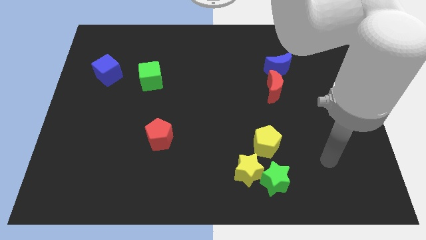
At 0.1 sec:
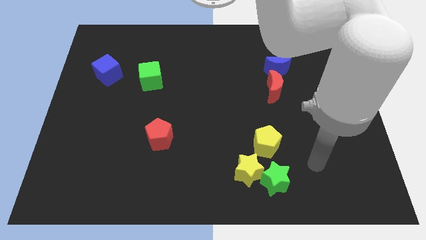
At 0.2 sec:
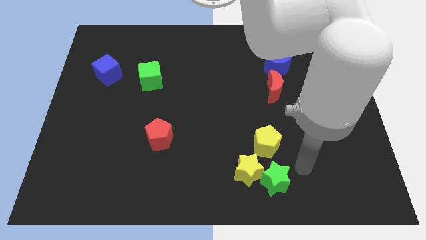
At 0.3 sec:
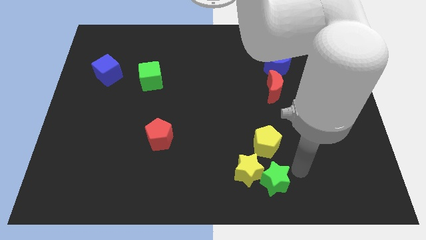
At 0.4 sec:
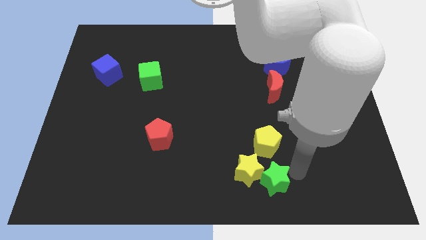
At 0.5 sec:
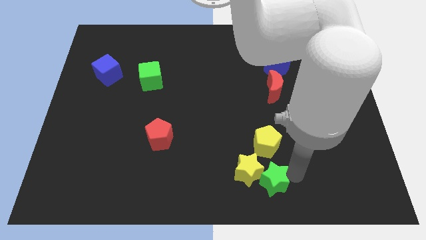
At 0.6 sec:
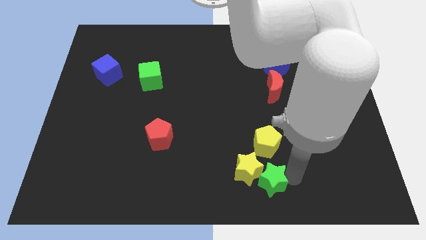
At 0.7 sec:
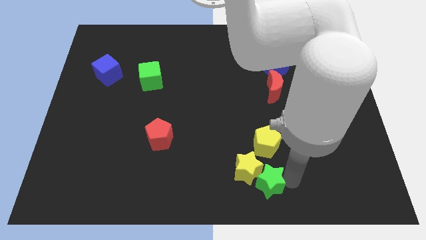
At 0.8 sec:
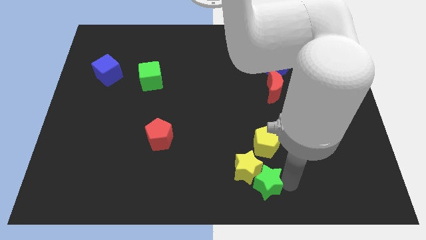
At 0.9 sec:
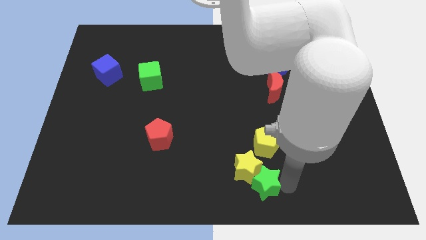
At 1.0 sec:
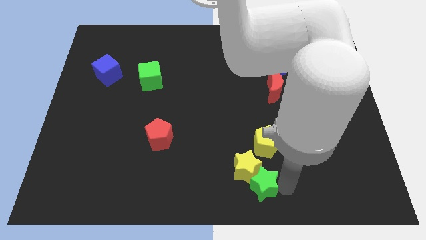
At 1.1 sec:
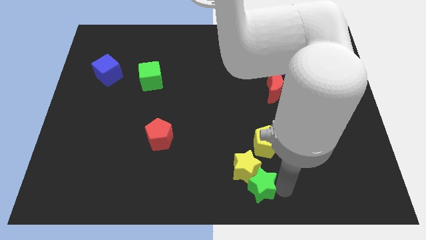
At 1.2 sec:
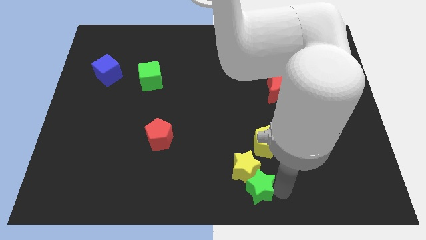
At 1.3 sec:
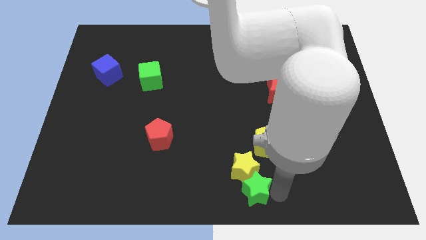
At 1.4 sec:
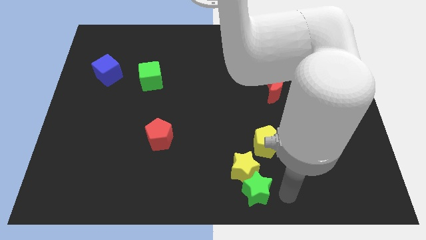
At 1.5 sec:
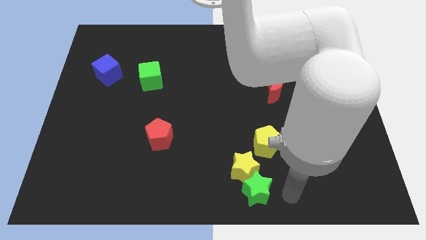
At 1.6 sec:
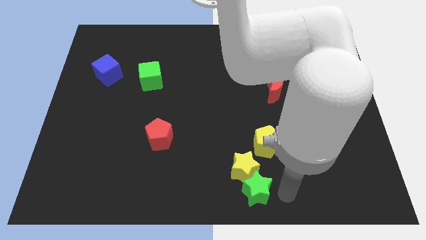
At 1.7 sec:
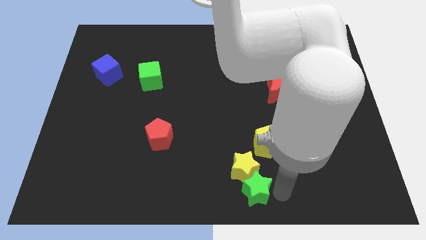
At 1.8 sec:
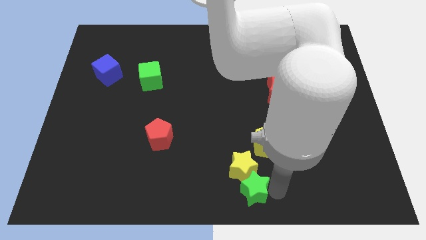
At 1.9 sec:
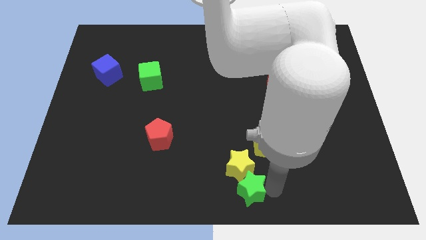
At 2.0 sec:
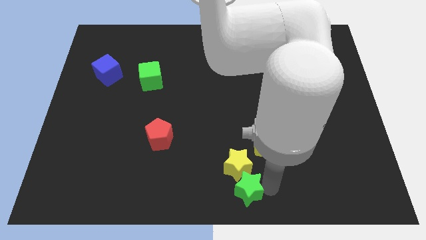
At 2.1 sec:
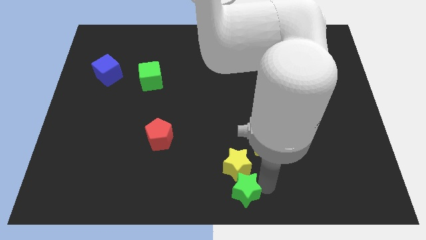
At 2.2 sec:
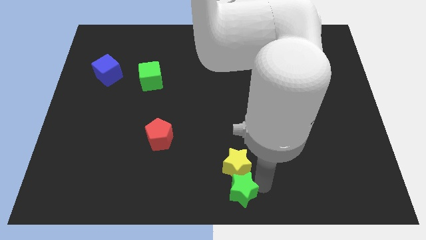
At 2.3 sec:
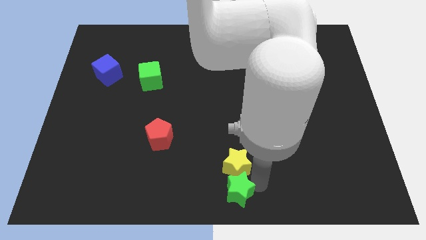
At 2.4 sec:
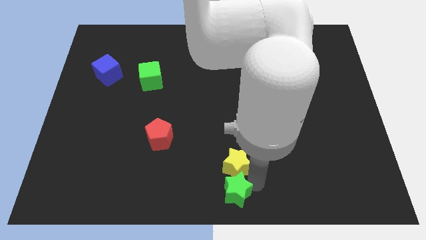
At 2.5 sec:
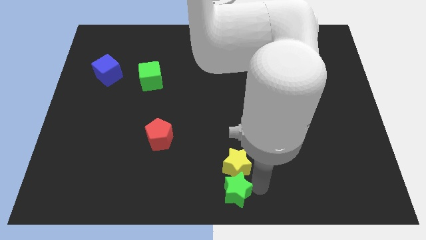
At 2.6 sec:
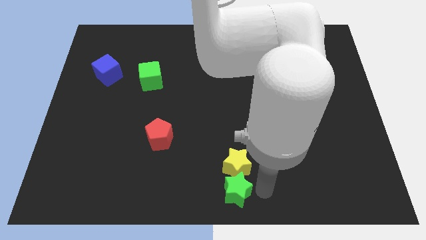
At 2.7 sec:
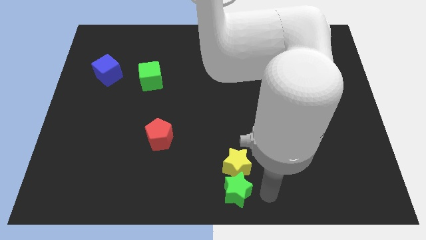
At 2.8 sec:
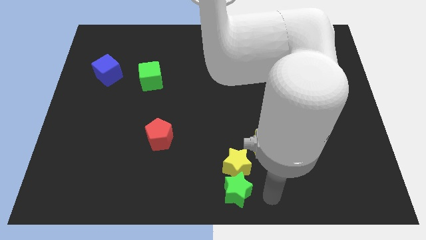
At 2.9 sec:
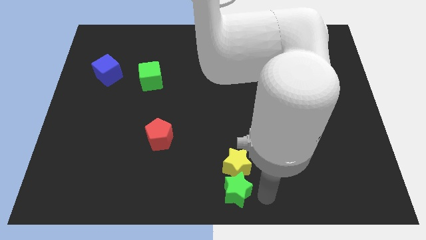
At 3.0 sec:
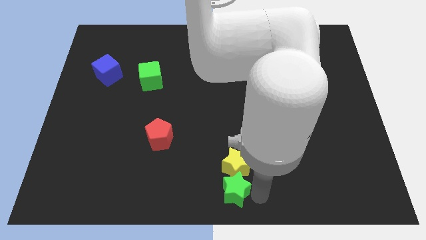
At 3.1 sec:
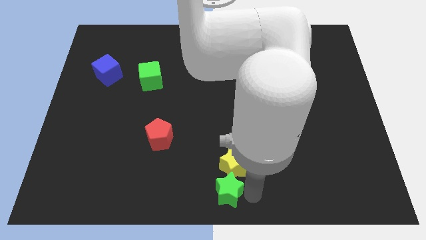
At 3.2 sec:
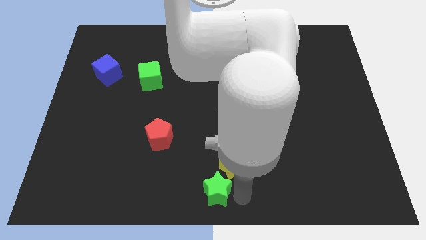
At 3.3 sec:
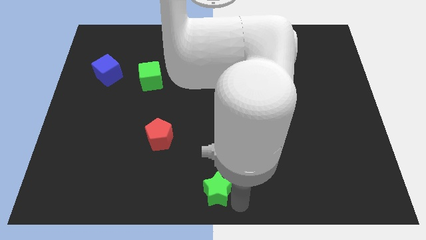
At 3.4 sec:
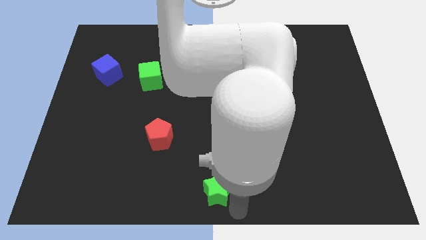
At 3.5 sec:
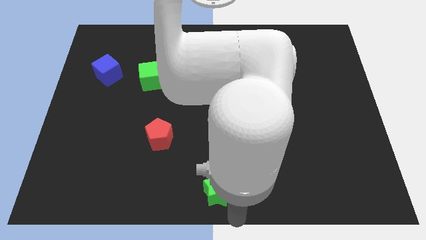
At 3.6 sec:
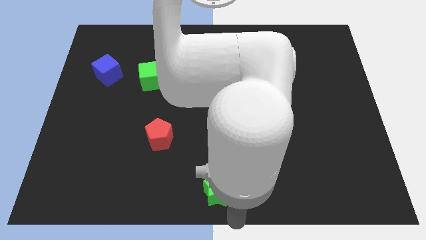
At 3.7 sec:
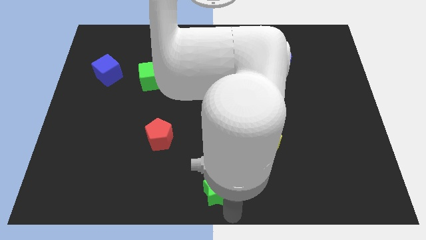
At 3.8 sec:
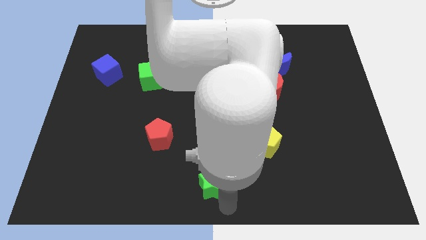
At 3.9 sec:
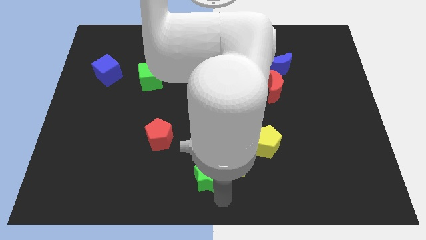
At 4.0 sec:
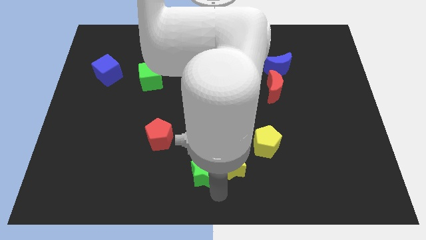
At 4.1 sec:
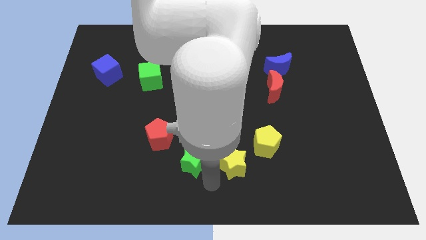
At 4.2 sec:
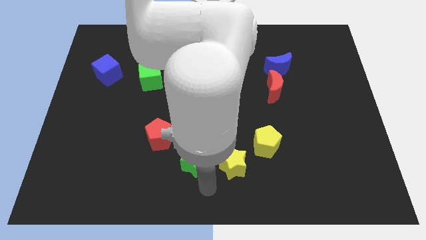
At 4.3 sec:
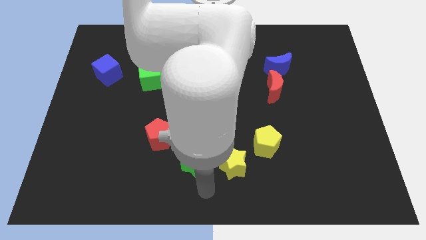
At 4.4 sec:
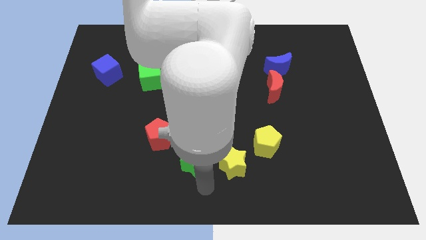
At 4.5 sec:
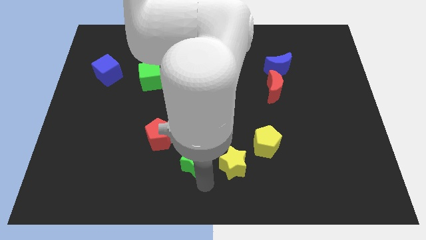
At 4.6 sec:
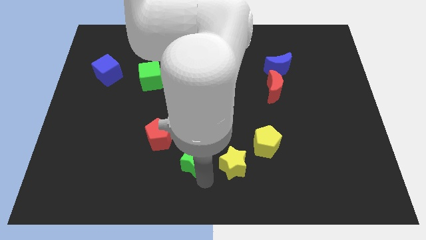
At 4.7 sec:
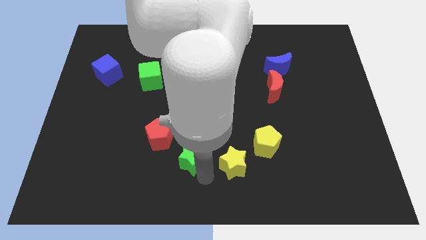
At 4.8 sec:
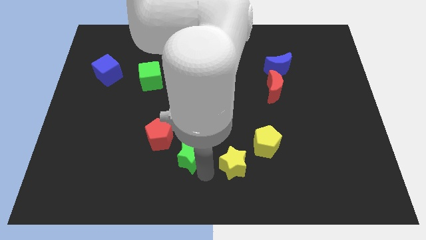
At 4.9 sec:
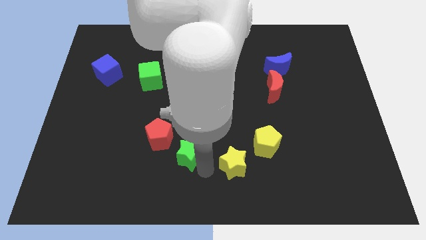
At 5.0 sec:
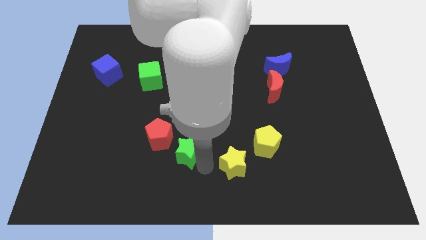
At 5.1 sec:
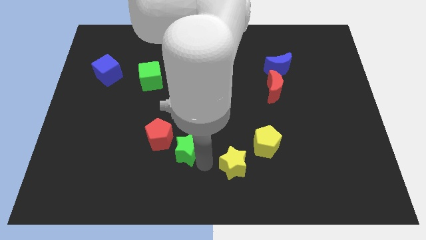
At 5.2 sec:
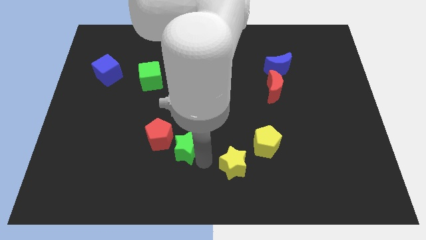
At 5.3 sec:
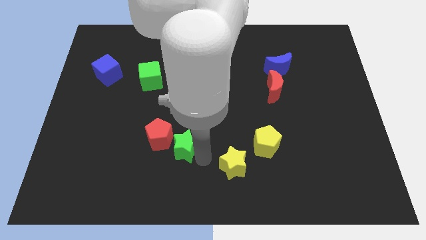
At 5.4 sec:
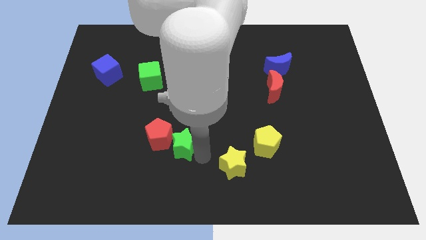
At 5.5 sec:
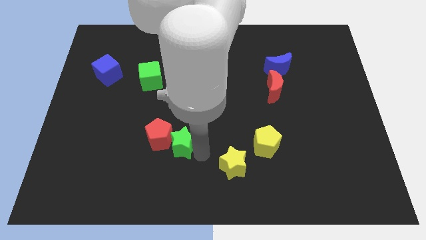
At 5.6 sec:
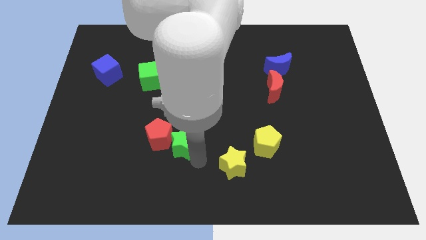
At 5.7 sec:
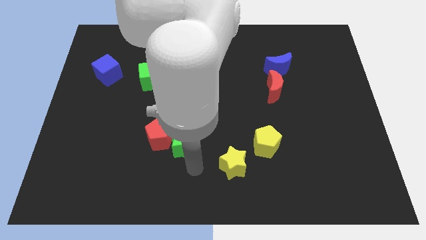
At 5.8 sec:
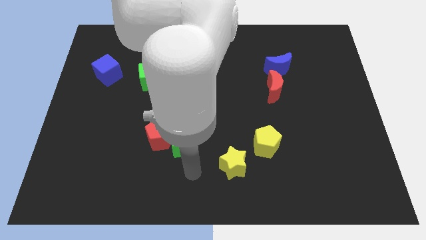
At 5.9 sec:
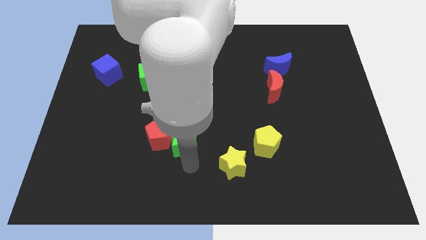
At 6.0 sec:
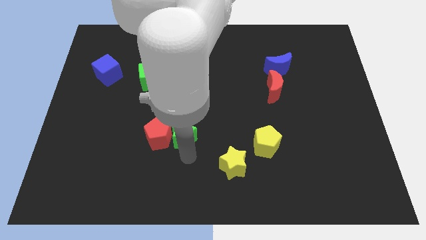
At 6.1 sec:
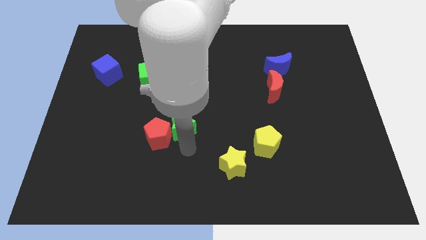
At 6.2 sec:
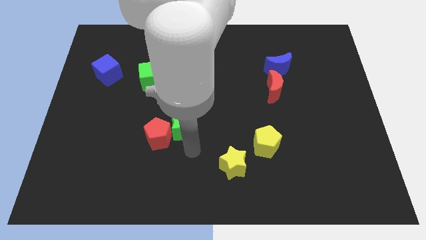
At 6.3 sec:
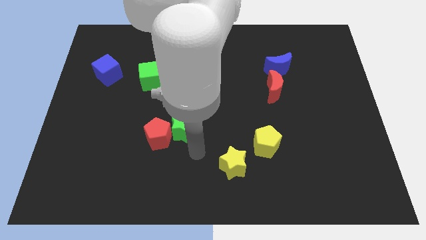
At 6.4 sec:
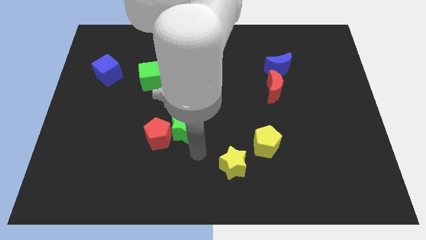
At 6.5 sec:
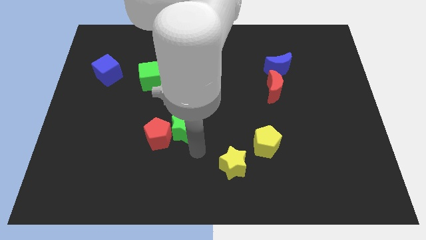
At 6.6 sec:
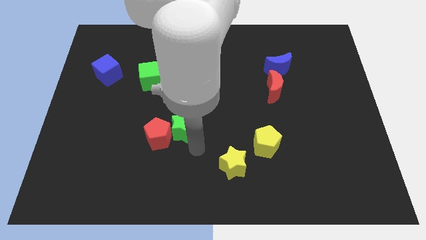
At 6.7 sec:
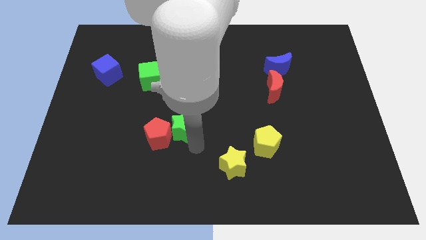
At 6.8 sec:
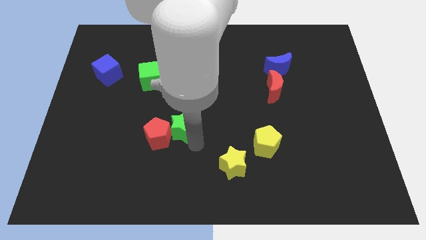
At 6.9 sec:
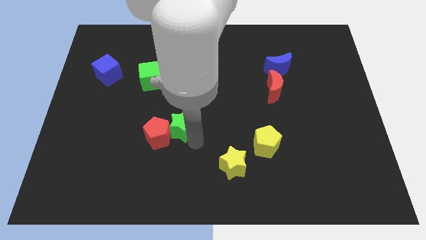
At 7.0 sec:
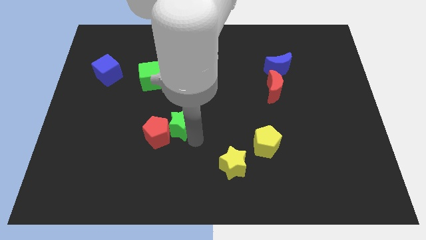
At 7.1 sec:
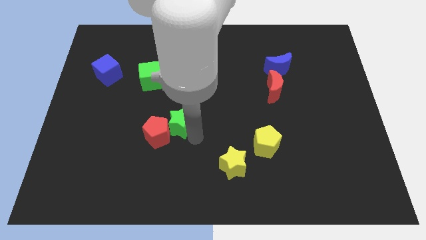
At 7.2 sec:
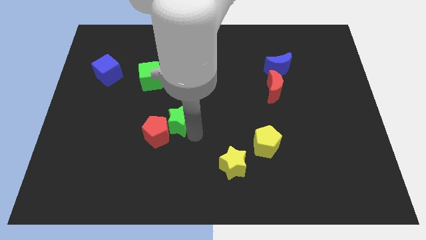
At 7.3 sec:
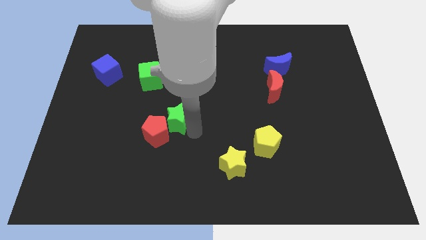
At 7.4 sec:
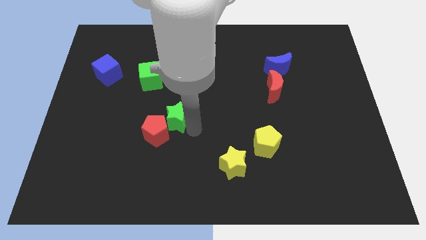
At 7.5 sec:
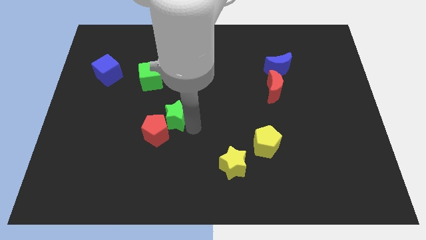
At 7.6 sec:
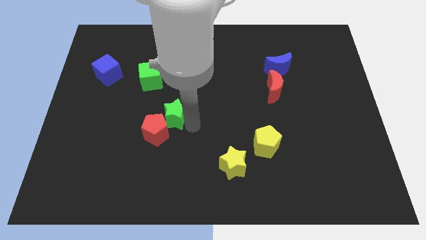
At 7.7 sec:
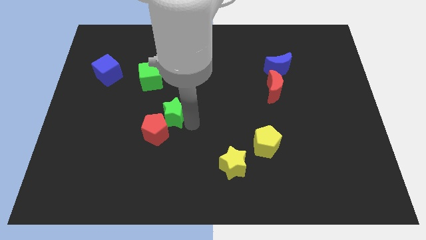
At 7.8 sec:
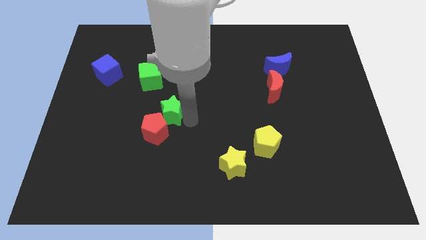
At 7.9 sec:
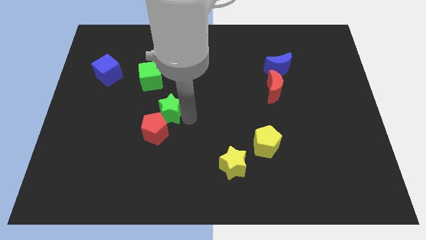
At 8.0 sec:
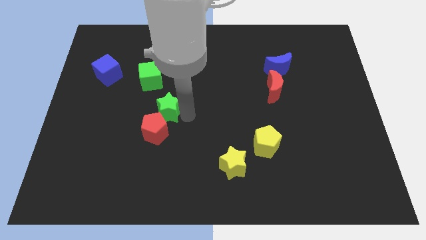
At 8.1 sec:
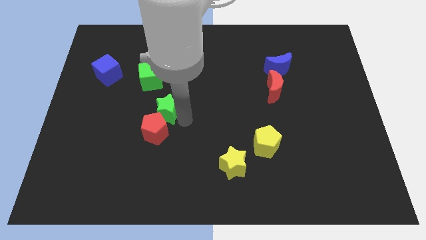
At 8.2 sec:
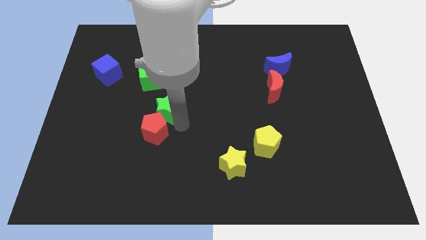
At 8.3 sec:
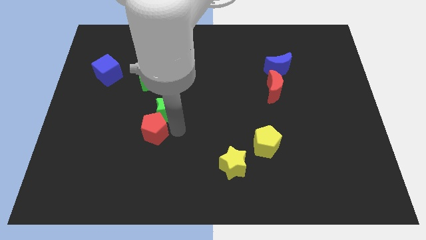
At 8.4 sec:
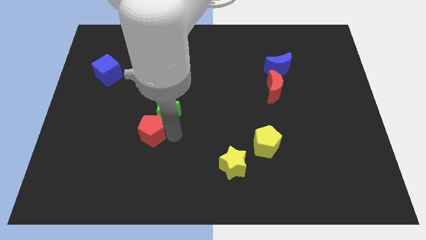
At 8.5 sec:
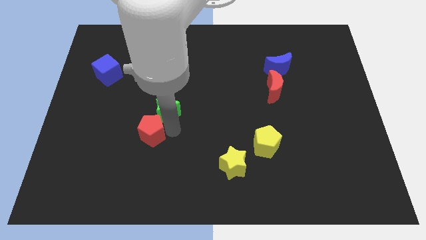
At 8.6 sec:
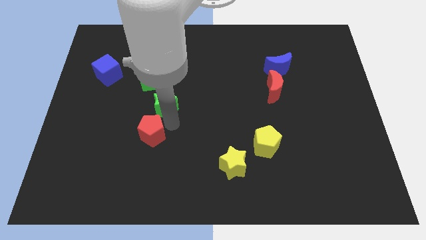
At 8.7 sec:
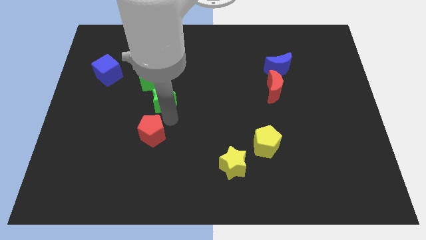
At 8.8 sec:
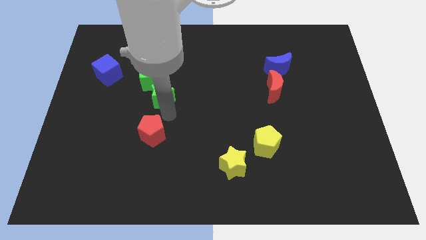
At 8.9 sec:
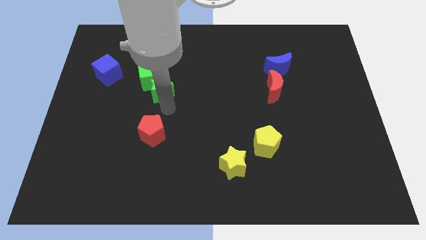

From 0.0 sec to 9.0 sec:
put the green star next to the green cube
